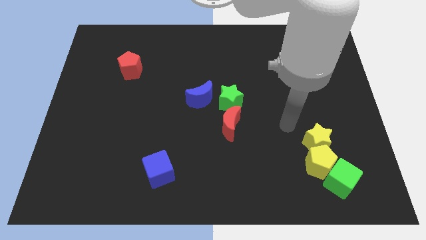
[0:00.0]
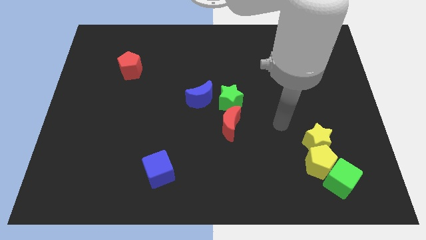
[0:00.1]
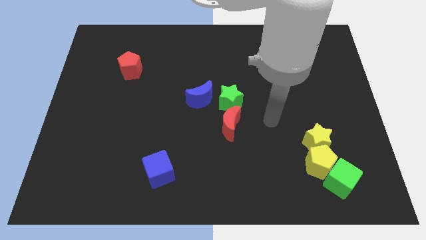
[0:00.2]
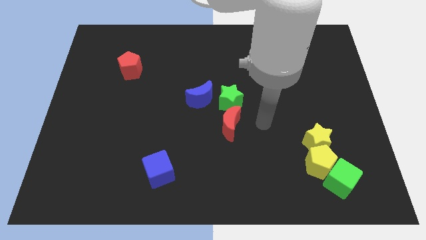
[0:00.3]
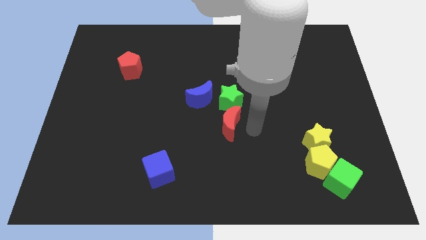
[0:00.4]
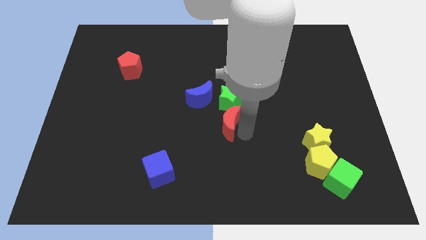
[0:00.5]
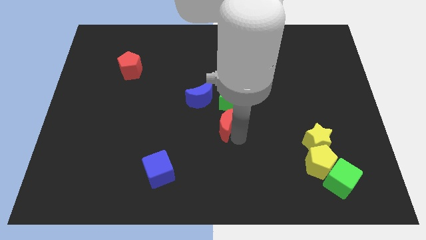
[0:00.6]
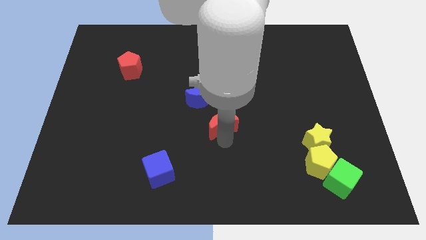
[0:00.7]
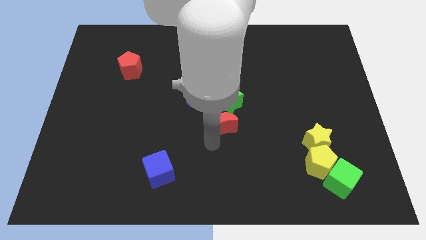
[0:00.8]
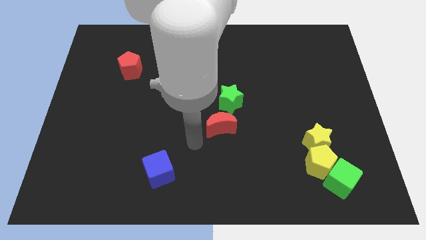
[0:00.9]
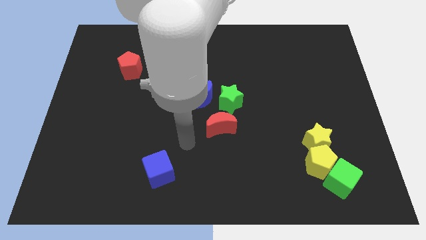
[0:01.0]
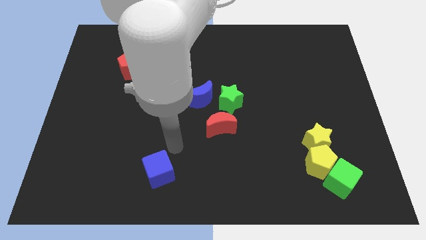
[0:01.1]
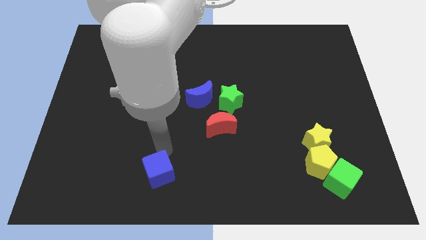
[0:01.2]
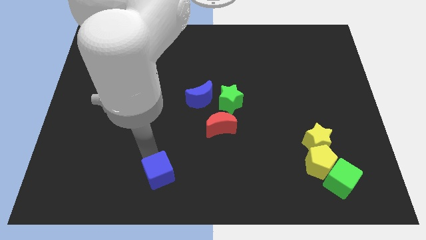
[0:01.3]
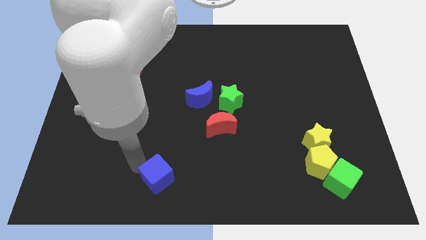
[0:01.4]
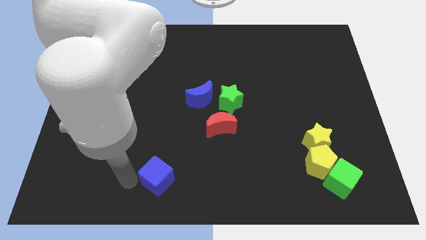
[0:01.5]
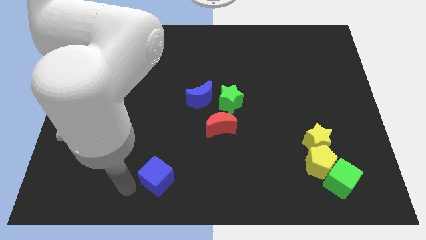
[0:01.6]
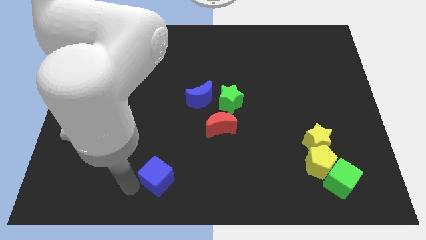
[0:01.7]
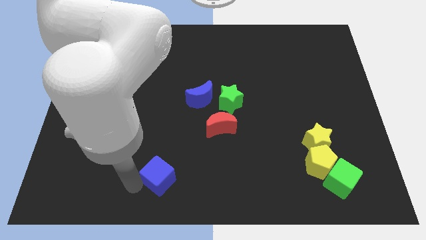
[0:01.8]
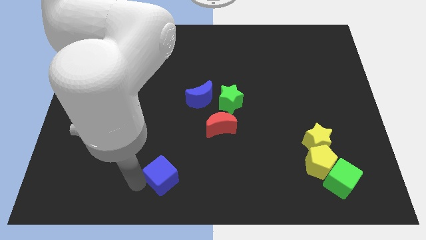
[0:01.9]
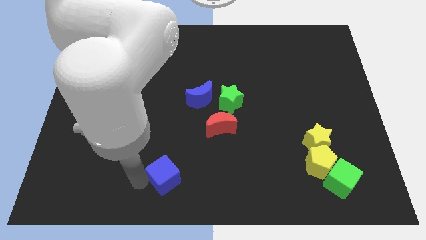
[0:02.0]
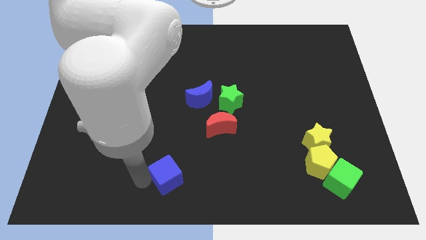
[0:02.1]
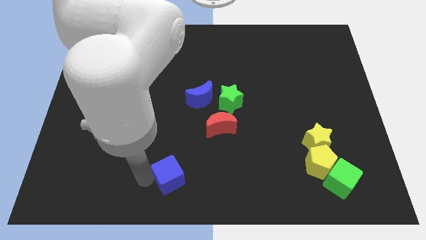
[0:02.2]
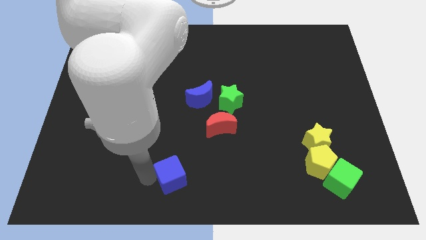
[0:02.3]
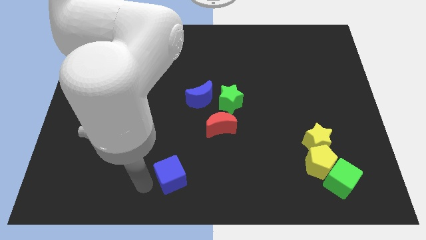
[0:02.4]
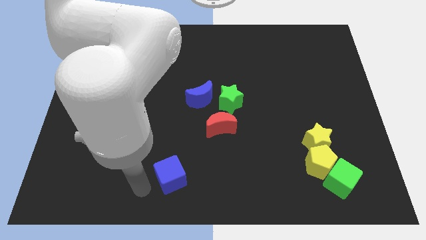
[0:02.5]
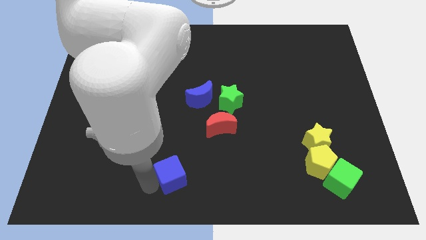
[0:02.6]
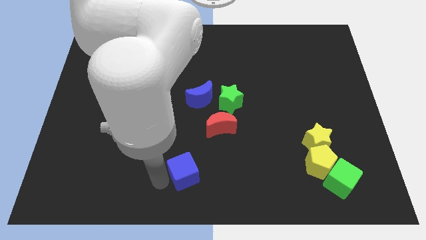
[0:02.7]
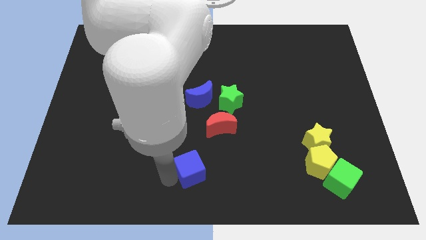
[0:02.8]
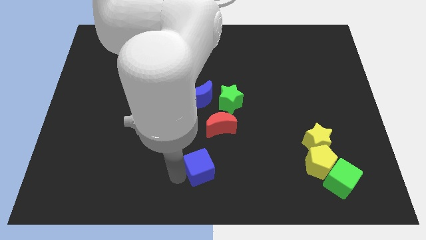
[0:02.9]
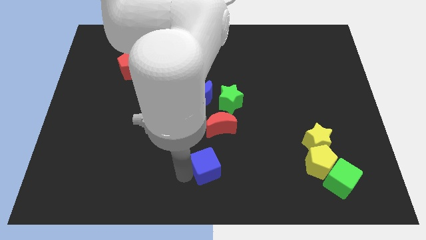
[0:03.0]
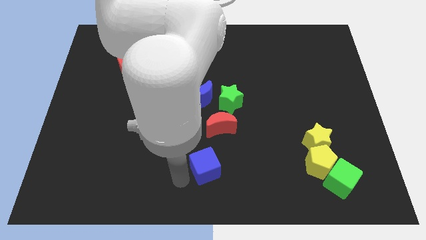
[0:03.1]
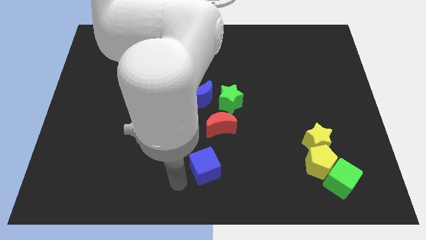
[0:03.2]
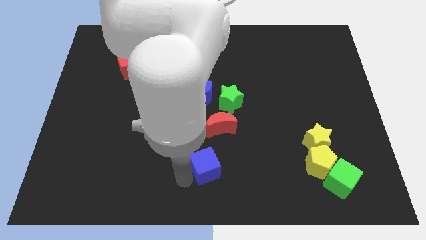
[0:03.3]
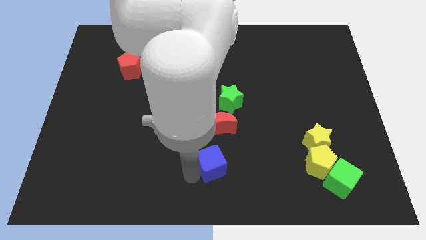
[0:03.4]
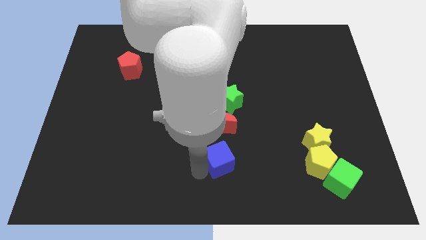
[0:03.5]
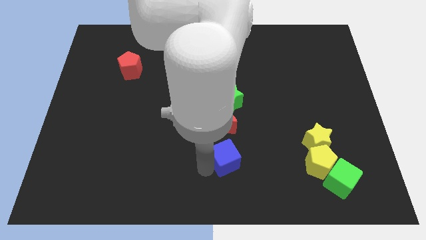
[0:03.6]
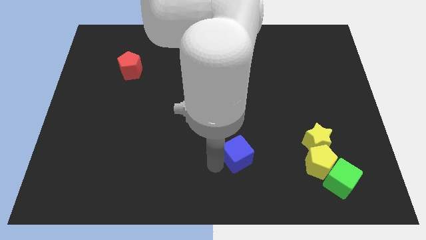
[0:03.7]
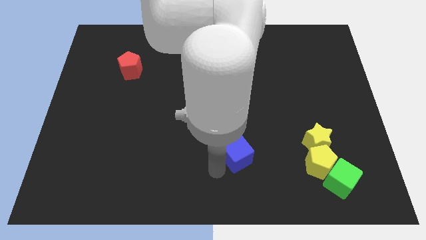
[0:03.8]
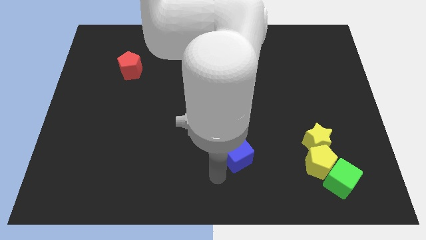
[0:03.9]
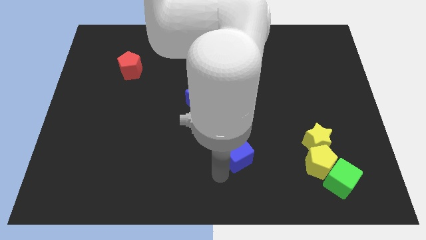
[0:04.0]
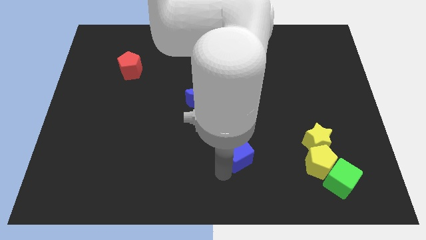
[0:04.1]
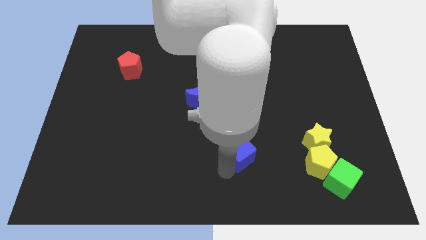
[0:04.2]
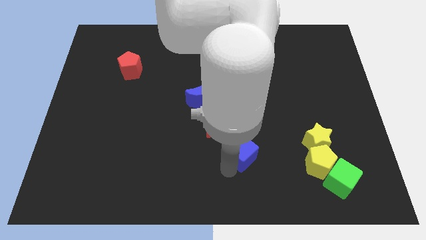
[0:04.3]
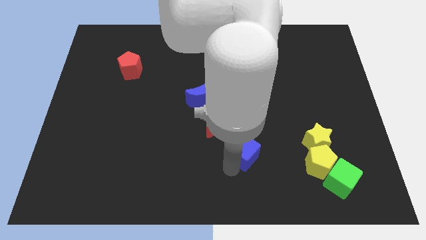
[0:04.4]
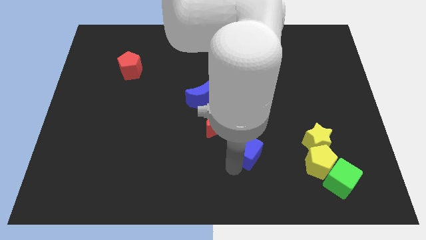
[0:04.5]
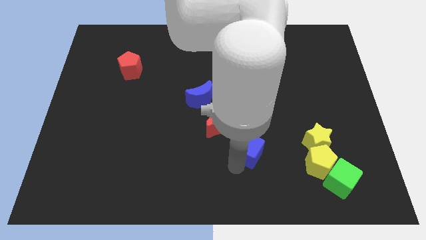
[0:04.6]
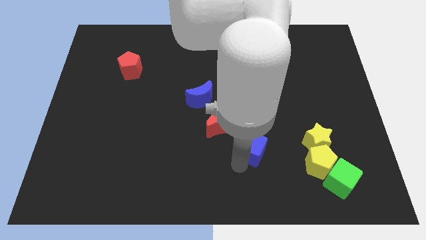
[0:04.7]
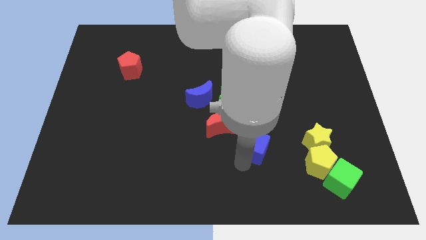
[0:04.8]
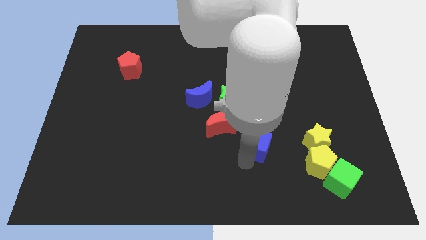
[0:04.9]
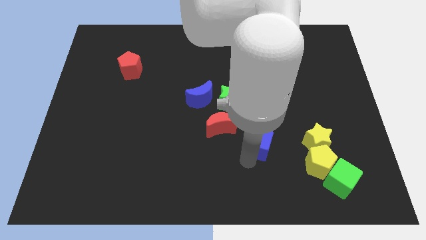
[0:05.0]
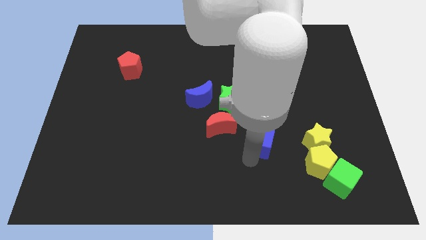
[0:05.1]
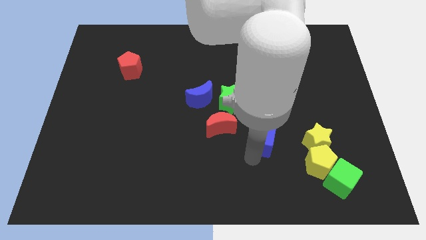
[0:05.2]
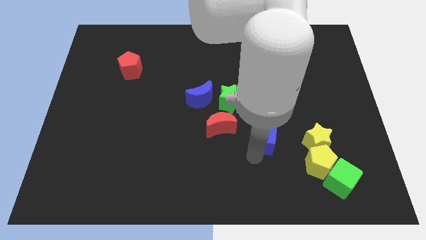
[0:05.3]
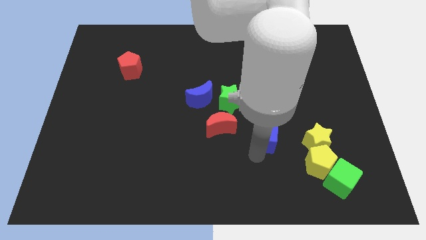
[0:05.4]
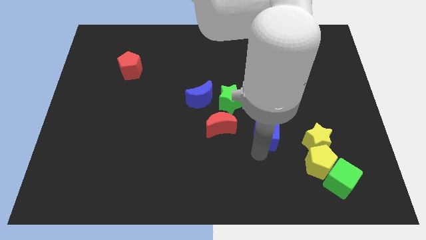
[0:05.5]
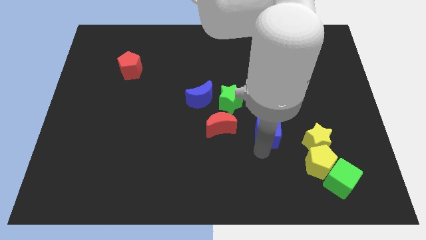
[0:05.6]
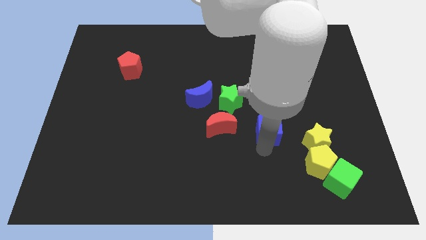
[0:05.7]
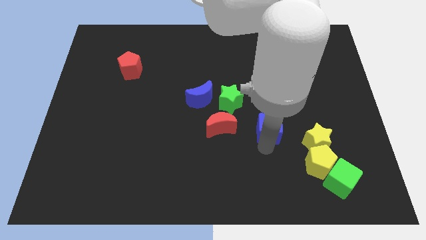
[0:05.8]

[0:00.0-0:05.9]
push the blue cube upwards and then to the right

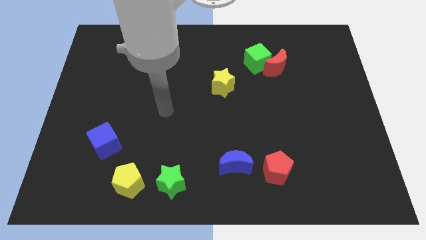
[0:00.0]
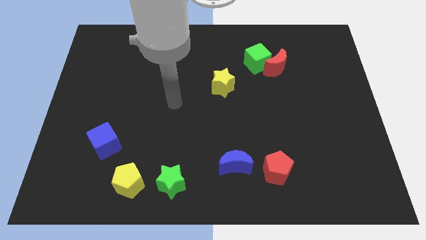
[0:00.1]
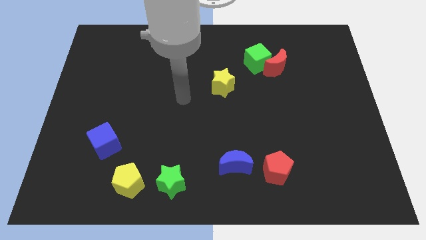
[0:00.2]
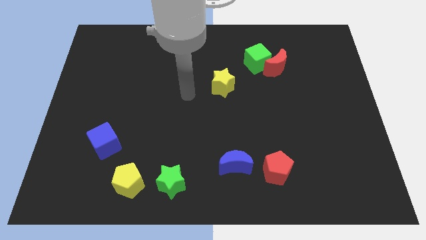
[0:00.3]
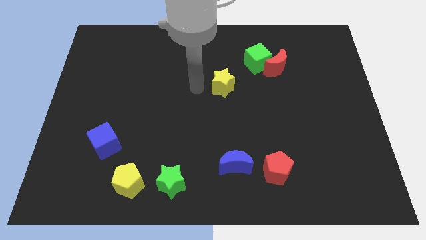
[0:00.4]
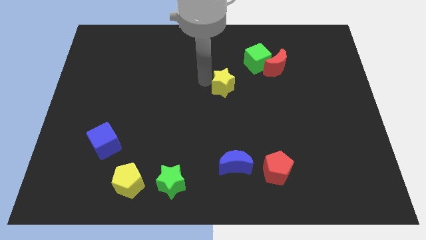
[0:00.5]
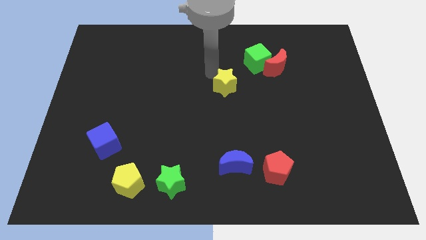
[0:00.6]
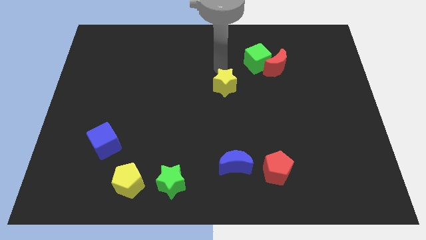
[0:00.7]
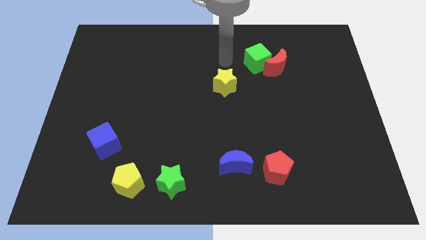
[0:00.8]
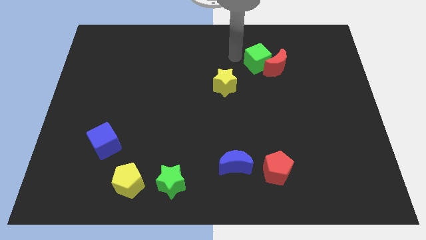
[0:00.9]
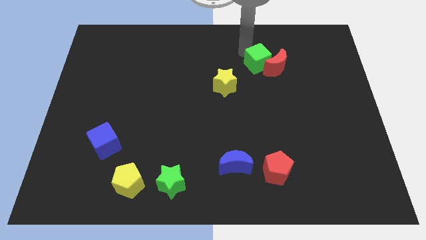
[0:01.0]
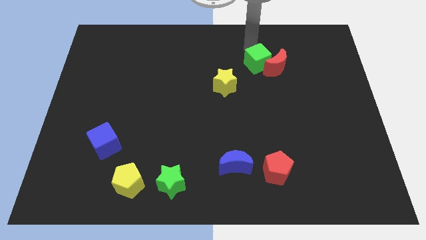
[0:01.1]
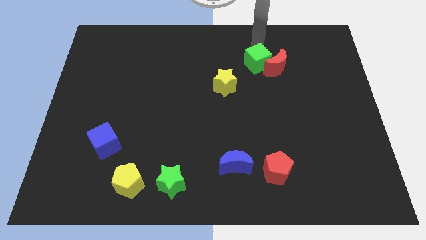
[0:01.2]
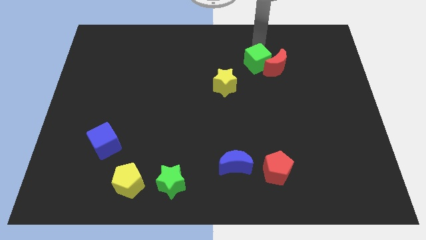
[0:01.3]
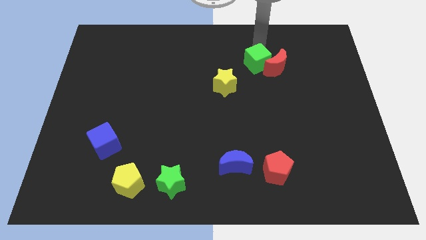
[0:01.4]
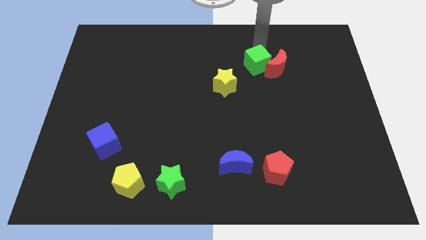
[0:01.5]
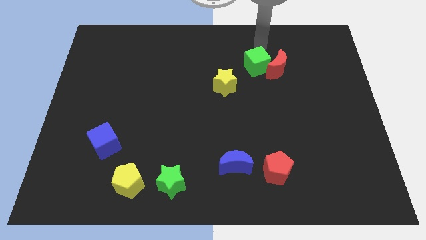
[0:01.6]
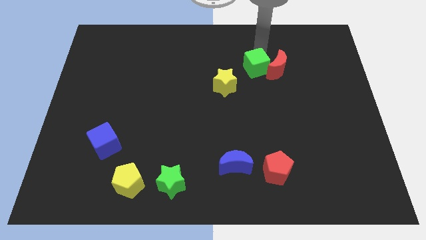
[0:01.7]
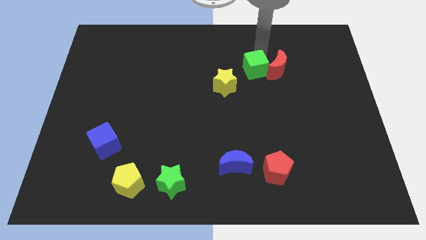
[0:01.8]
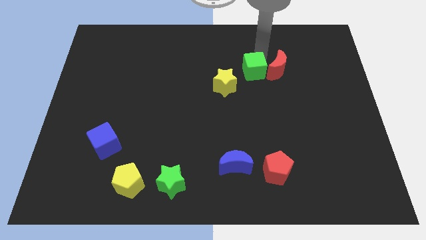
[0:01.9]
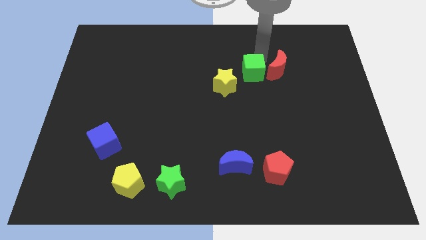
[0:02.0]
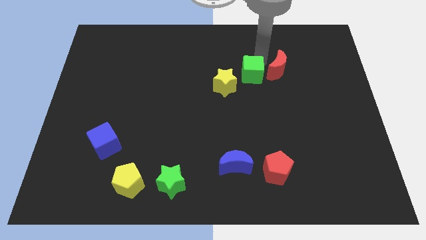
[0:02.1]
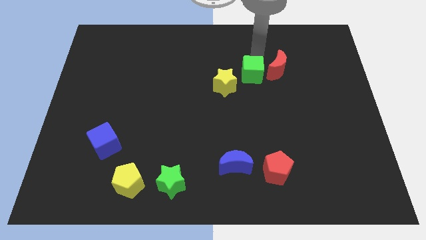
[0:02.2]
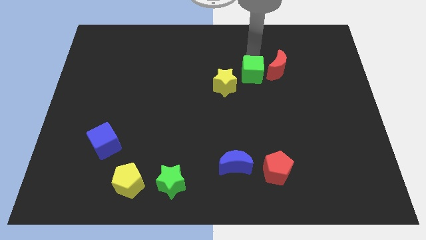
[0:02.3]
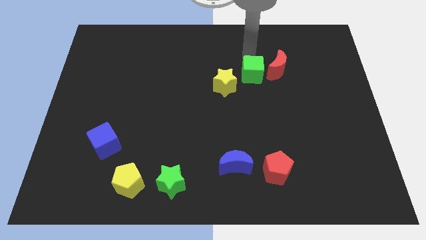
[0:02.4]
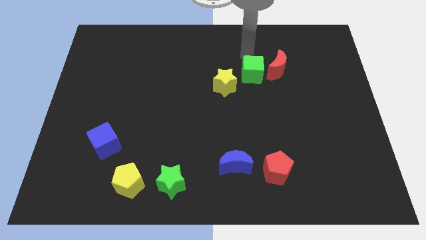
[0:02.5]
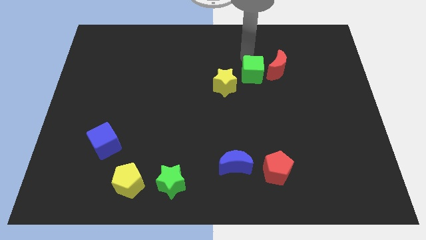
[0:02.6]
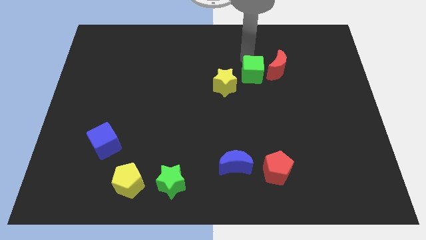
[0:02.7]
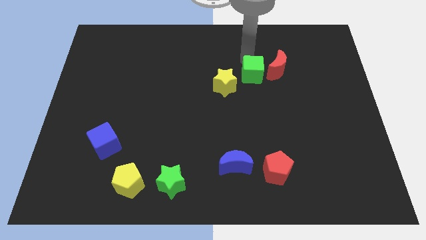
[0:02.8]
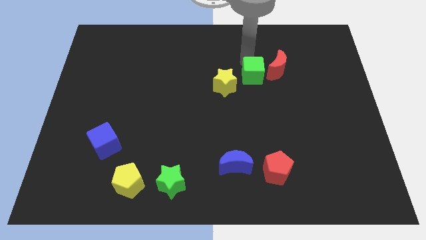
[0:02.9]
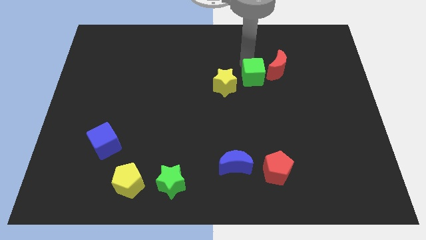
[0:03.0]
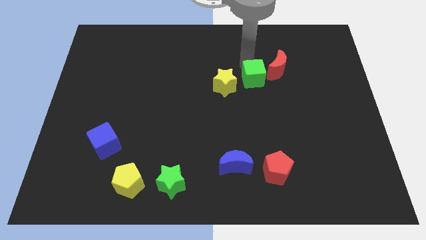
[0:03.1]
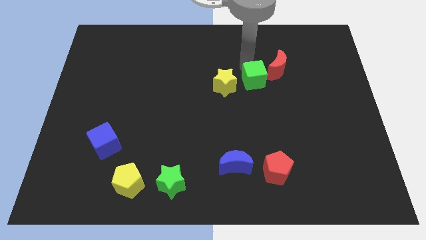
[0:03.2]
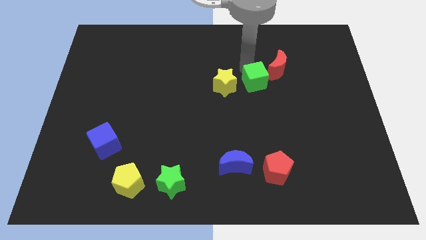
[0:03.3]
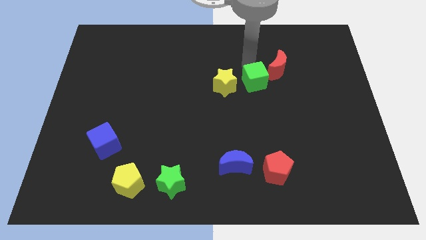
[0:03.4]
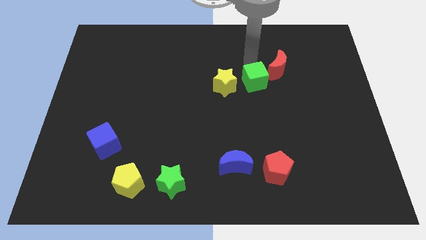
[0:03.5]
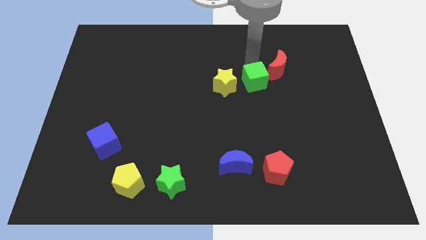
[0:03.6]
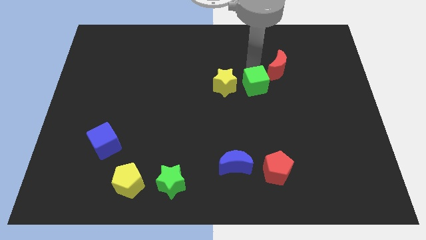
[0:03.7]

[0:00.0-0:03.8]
push the green cube slightly down
